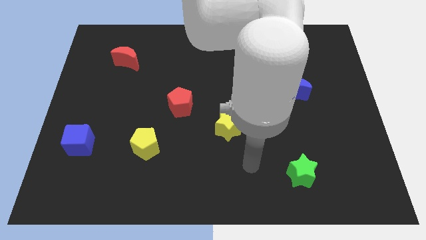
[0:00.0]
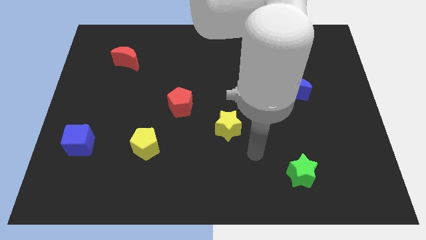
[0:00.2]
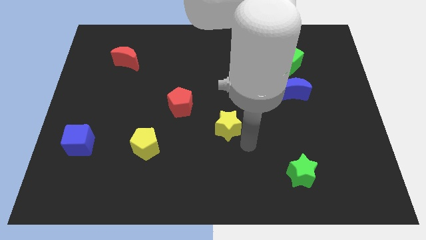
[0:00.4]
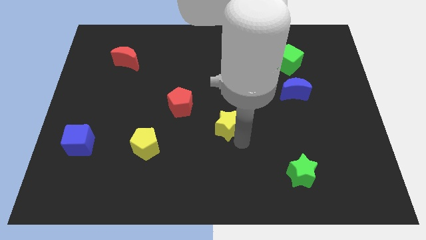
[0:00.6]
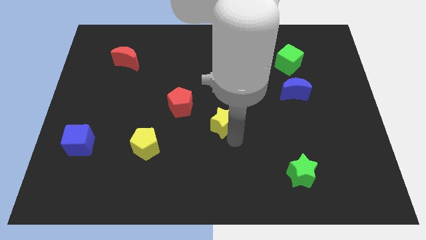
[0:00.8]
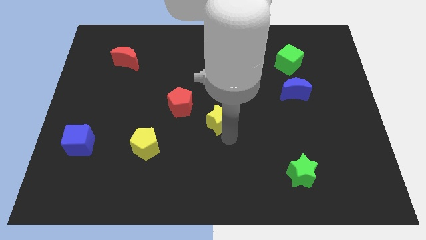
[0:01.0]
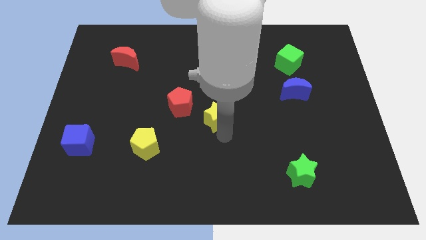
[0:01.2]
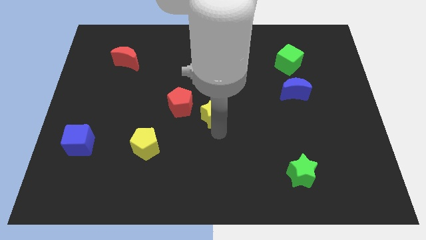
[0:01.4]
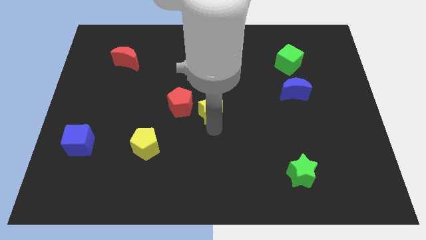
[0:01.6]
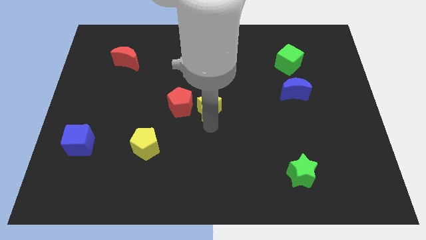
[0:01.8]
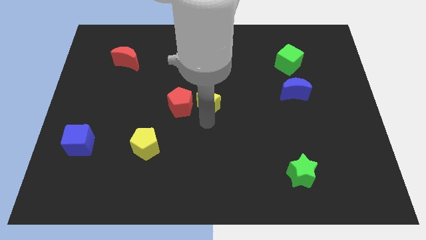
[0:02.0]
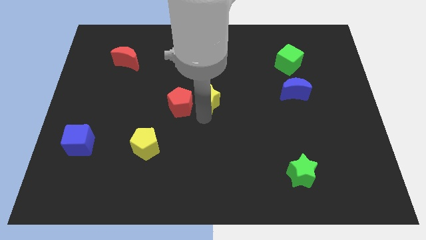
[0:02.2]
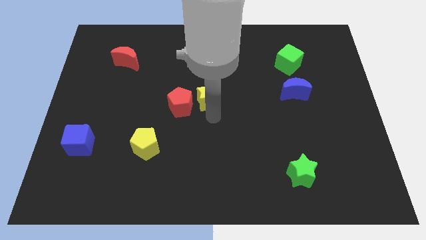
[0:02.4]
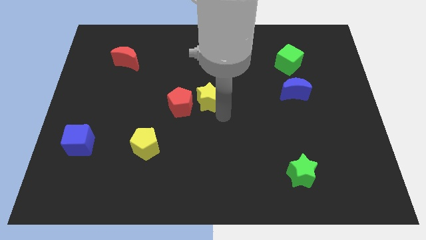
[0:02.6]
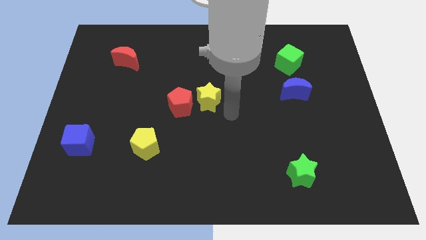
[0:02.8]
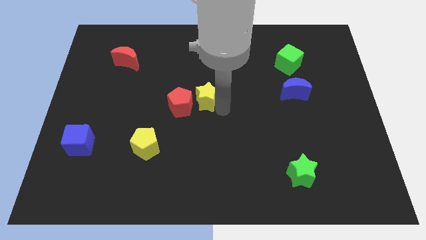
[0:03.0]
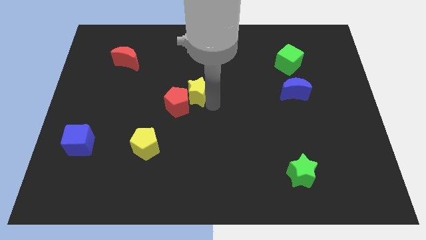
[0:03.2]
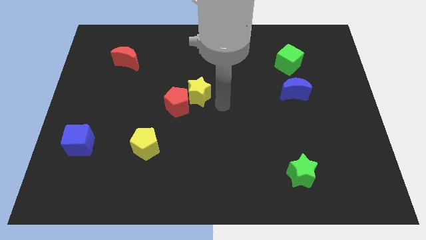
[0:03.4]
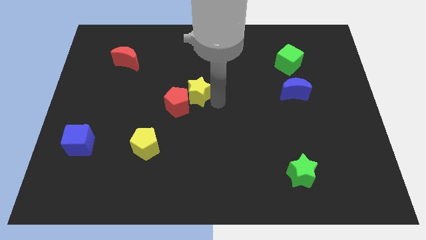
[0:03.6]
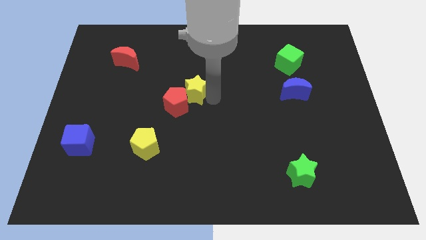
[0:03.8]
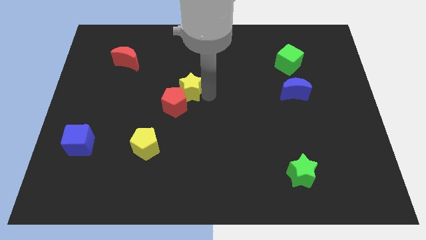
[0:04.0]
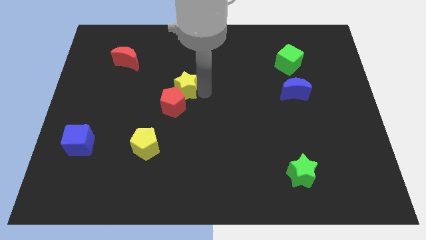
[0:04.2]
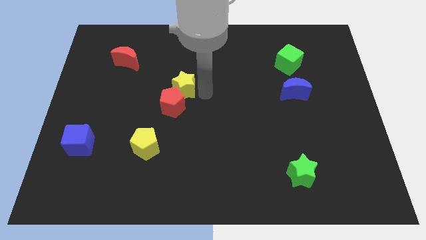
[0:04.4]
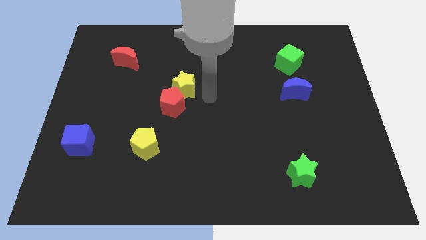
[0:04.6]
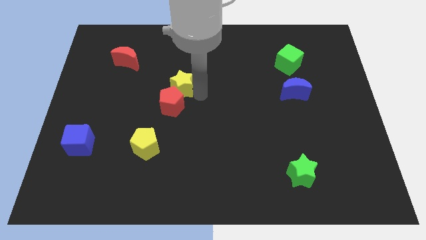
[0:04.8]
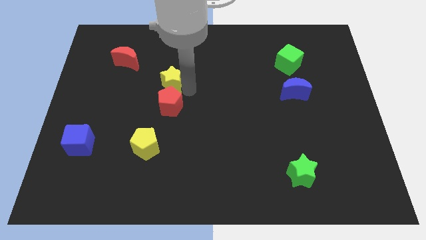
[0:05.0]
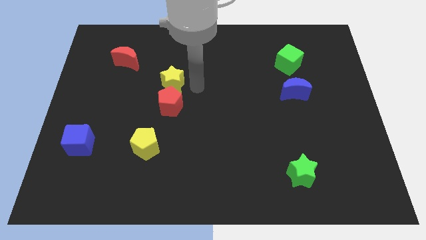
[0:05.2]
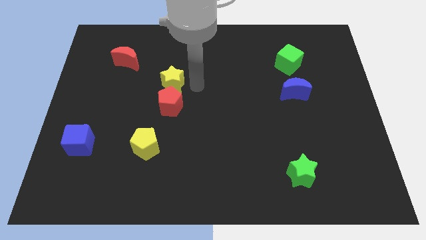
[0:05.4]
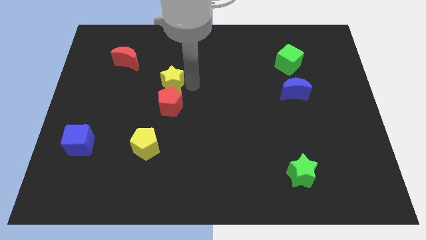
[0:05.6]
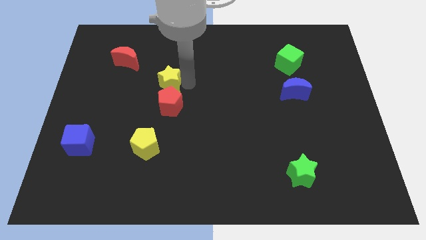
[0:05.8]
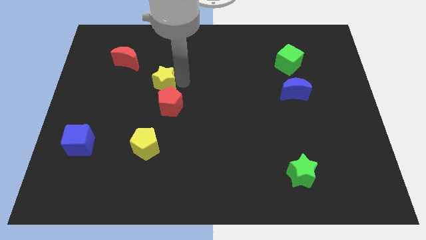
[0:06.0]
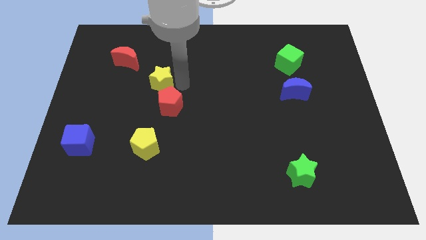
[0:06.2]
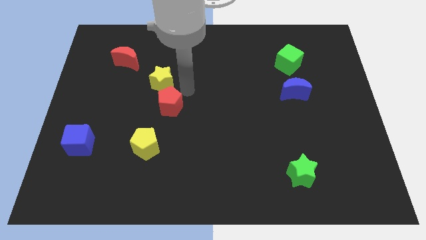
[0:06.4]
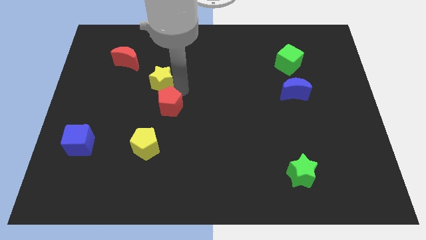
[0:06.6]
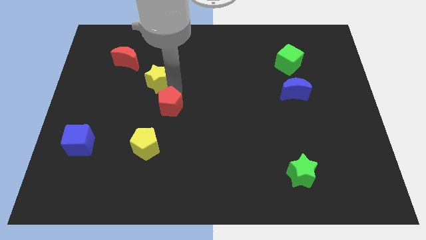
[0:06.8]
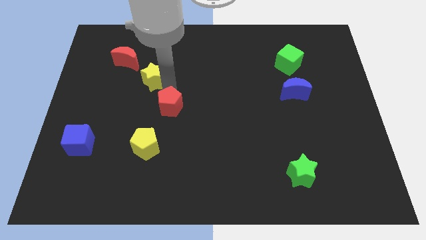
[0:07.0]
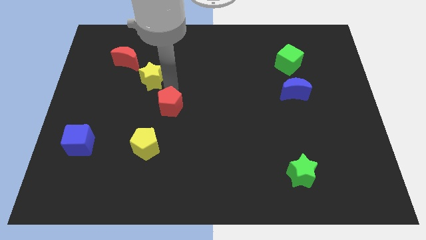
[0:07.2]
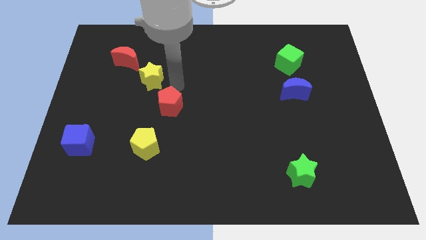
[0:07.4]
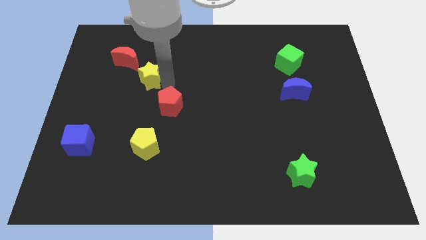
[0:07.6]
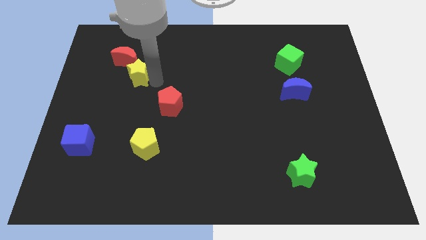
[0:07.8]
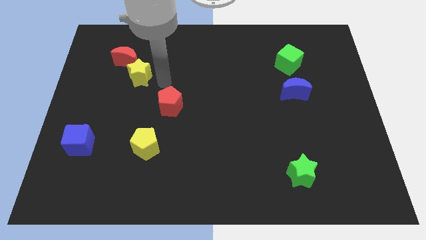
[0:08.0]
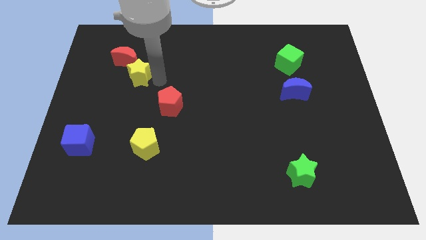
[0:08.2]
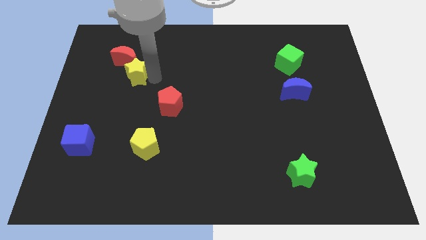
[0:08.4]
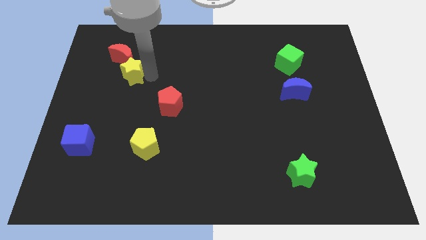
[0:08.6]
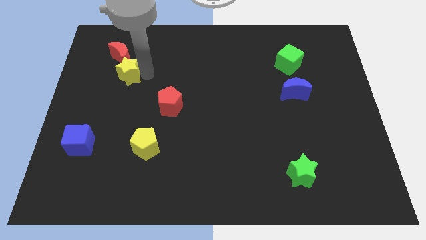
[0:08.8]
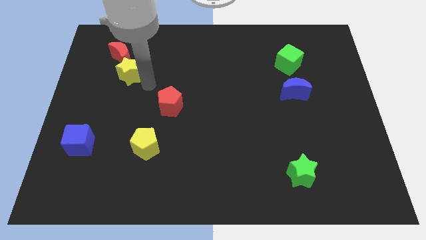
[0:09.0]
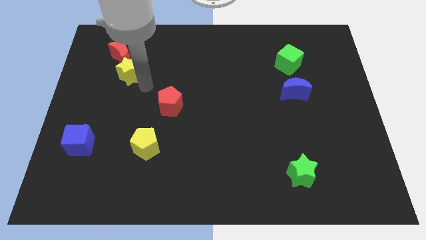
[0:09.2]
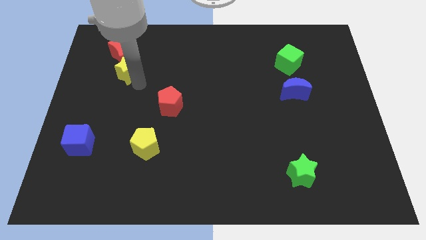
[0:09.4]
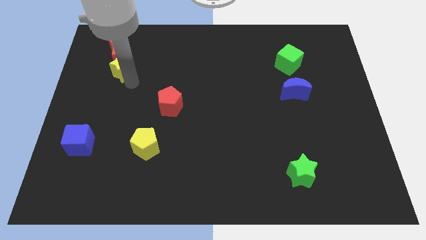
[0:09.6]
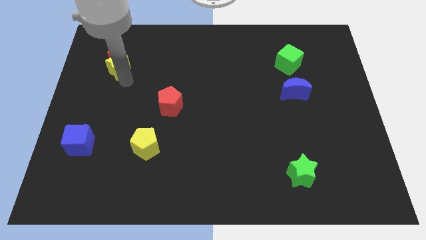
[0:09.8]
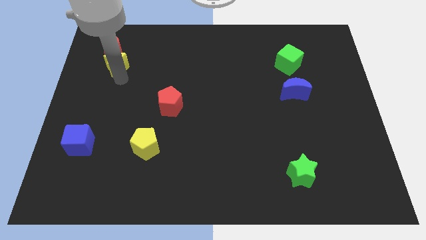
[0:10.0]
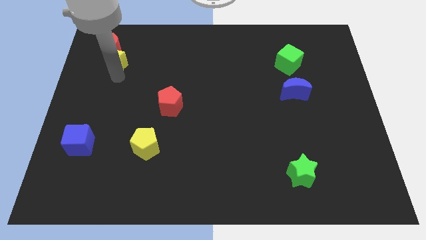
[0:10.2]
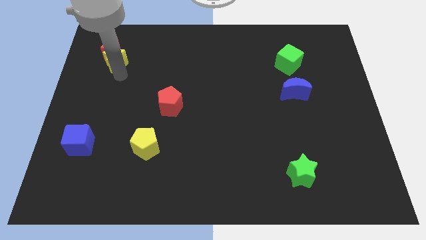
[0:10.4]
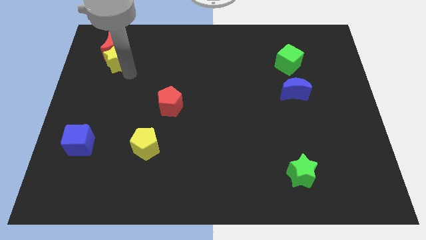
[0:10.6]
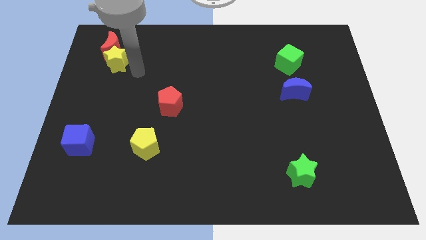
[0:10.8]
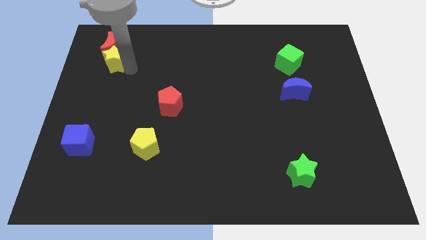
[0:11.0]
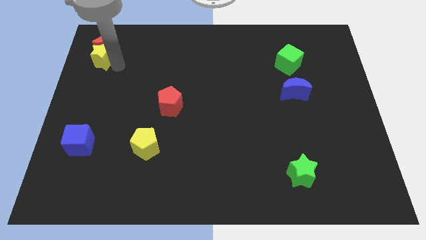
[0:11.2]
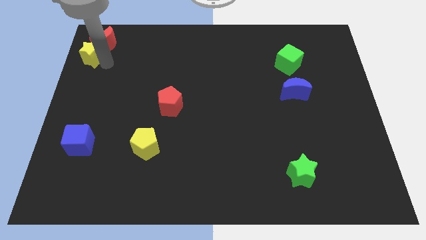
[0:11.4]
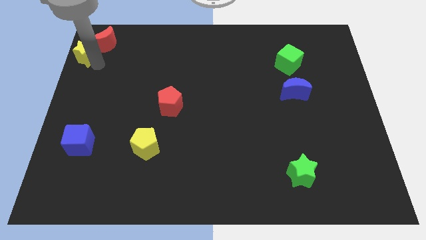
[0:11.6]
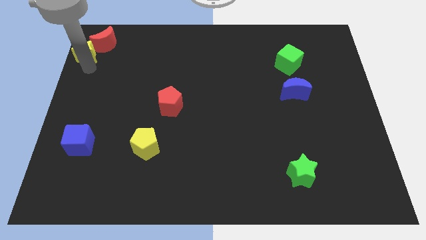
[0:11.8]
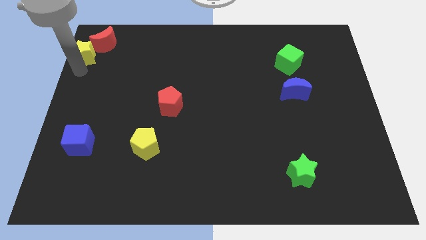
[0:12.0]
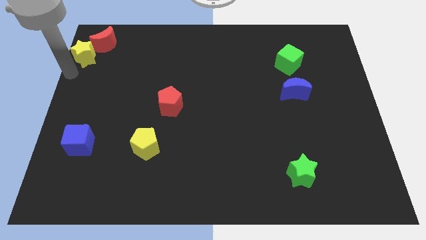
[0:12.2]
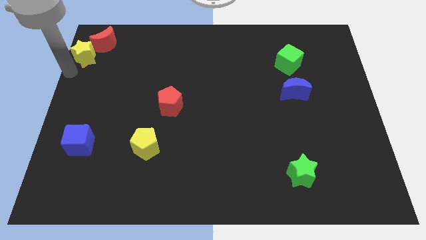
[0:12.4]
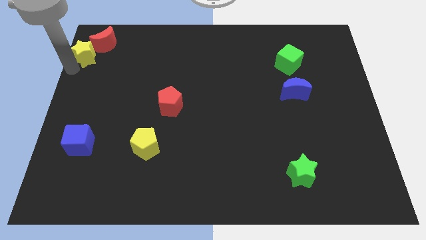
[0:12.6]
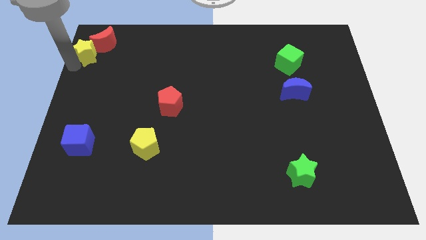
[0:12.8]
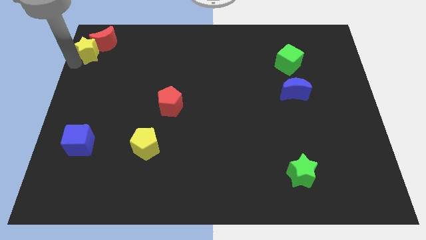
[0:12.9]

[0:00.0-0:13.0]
slide the yellow star to the top left corner
